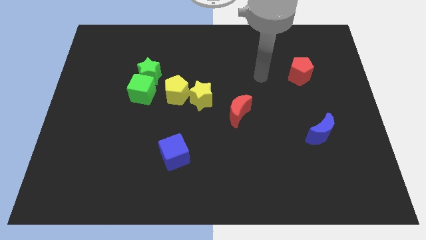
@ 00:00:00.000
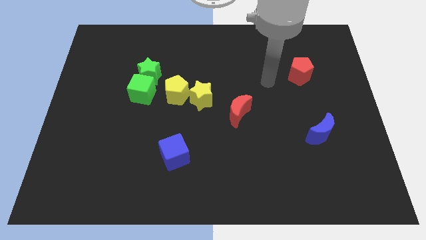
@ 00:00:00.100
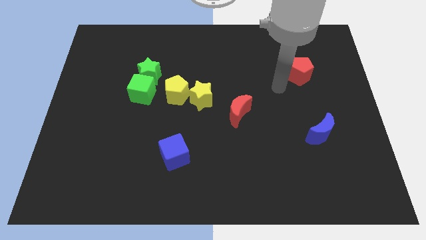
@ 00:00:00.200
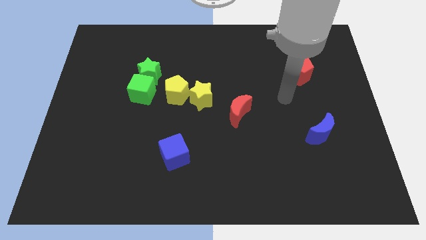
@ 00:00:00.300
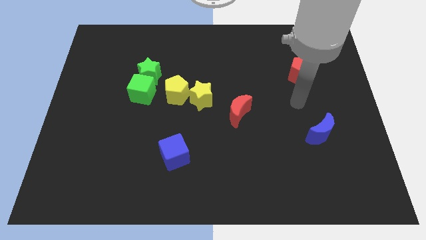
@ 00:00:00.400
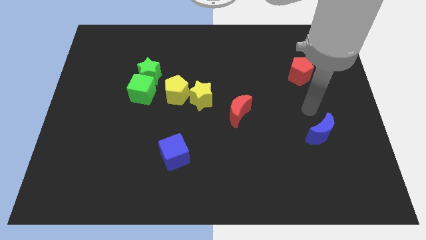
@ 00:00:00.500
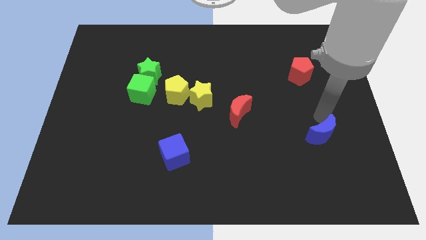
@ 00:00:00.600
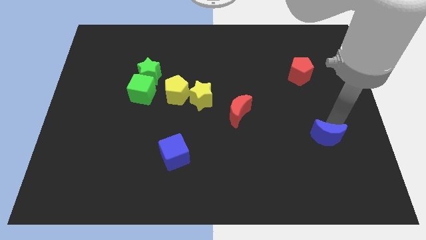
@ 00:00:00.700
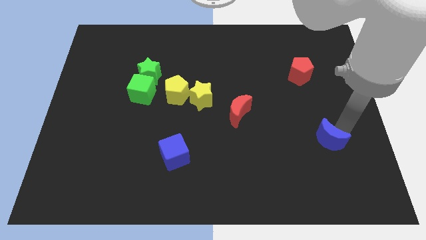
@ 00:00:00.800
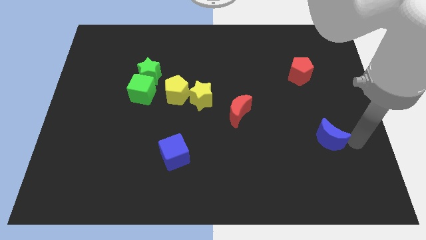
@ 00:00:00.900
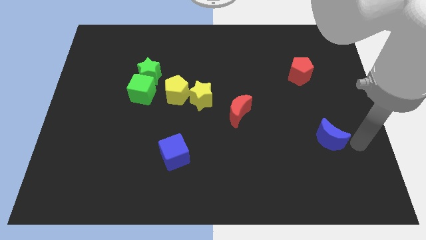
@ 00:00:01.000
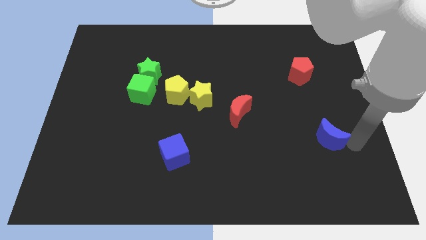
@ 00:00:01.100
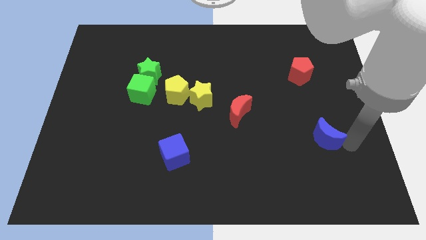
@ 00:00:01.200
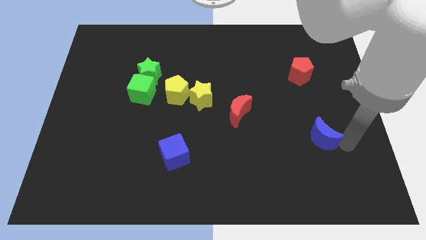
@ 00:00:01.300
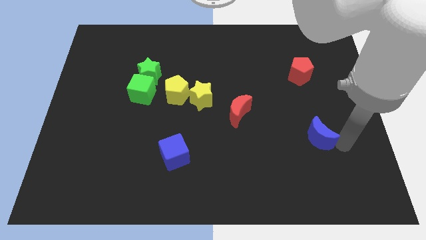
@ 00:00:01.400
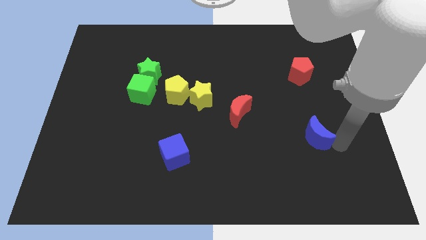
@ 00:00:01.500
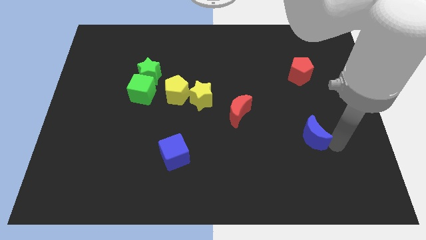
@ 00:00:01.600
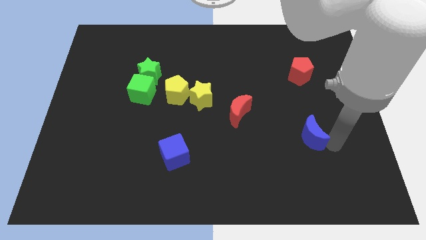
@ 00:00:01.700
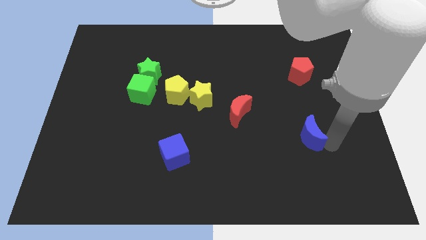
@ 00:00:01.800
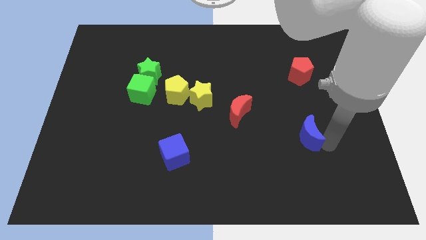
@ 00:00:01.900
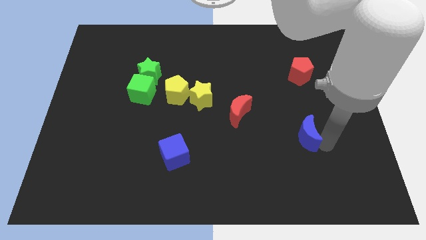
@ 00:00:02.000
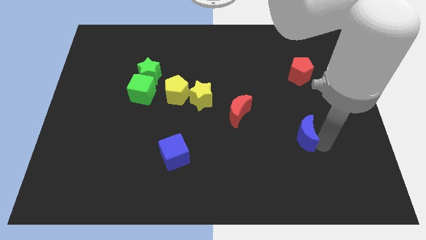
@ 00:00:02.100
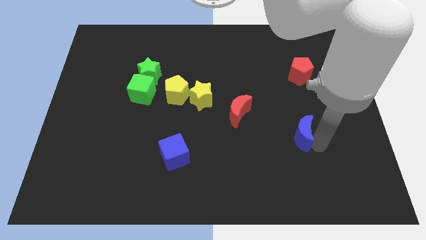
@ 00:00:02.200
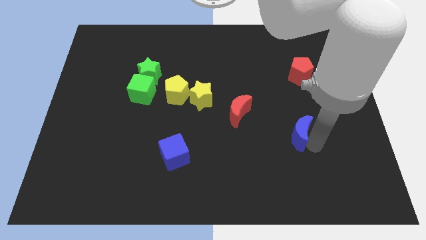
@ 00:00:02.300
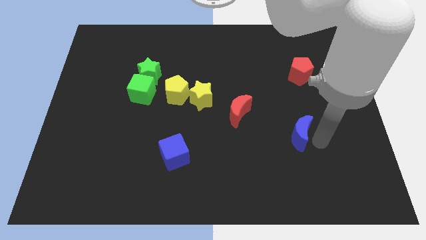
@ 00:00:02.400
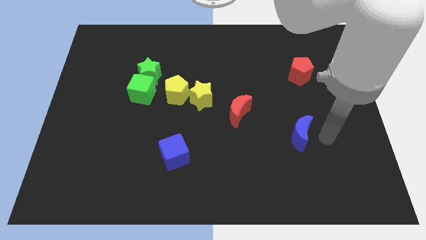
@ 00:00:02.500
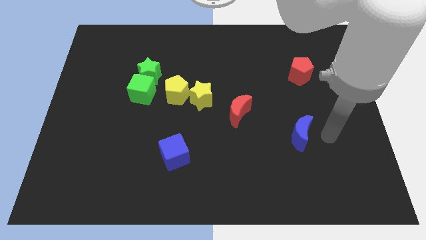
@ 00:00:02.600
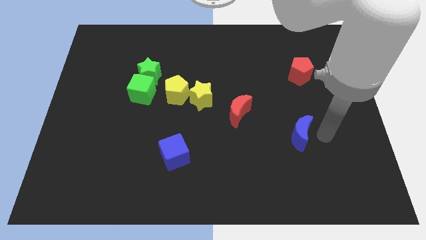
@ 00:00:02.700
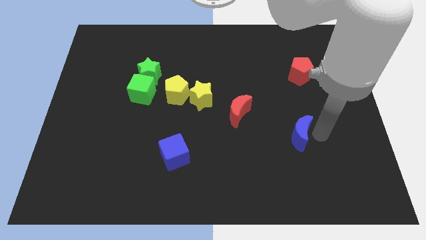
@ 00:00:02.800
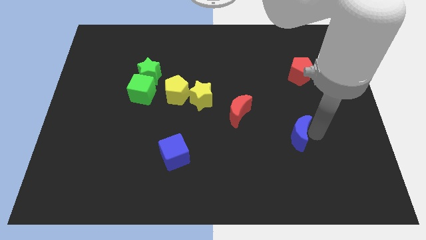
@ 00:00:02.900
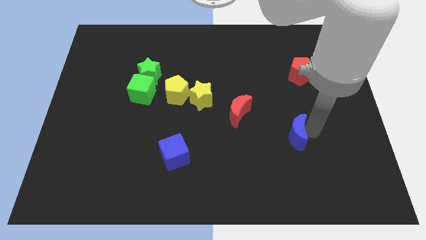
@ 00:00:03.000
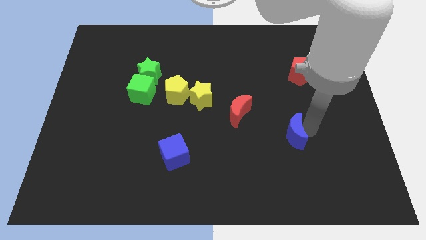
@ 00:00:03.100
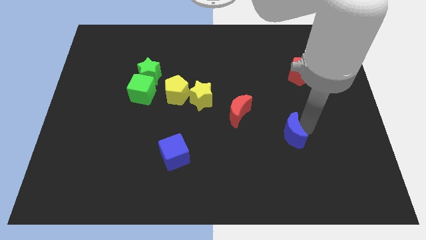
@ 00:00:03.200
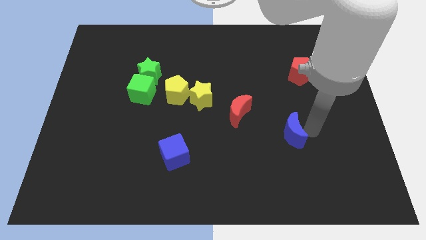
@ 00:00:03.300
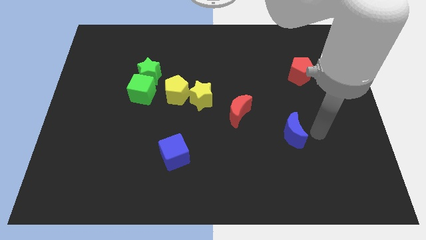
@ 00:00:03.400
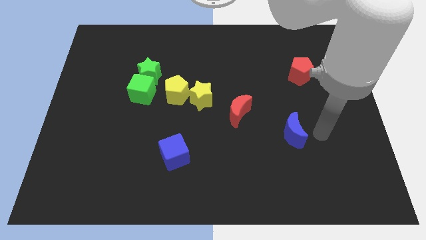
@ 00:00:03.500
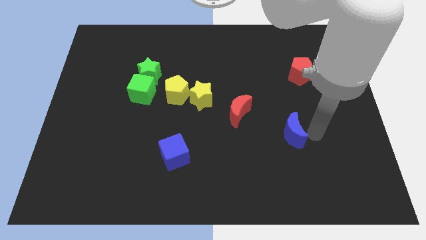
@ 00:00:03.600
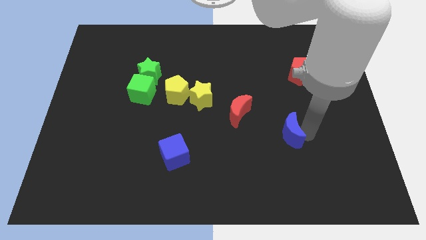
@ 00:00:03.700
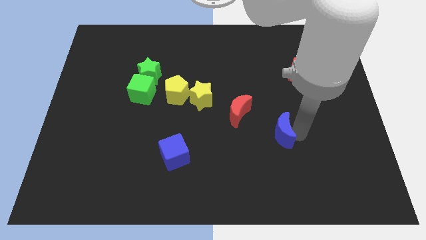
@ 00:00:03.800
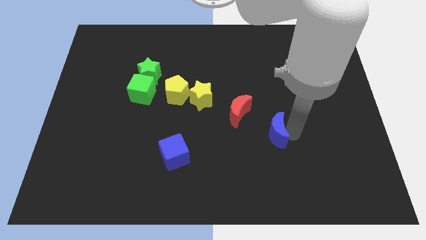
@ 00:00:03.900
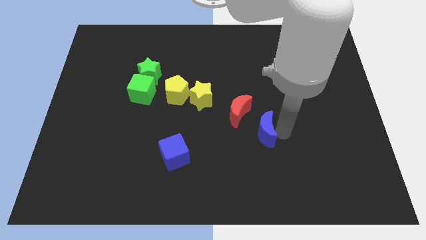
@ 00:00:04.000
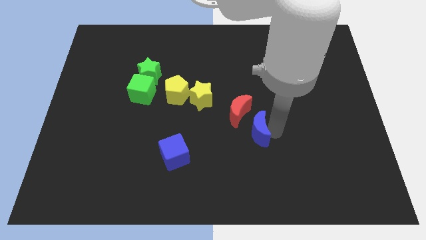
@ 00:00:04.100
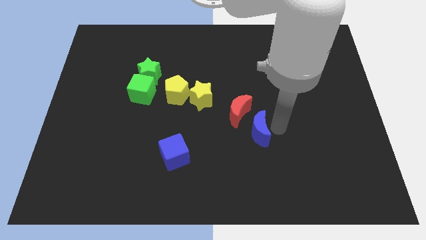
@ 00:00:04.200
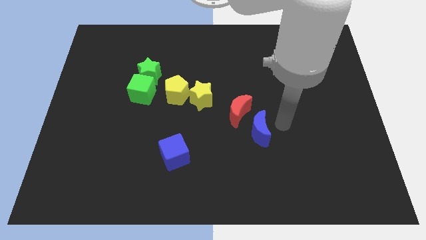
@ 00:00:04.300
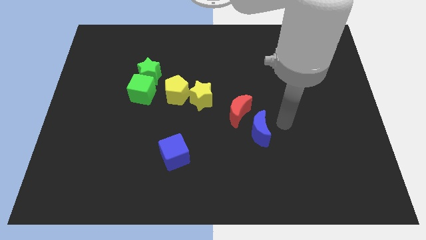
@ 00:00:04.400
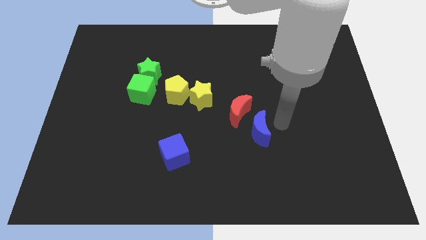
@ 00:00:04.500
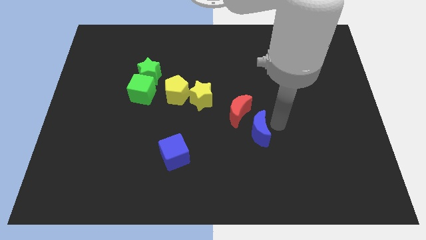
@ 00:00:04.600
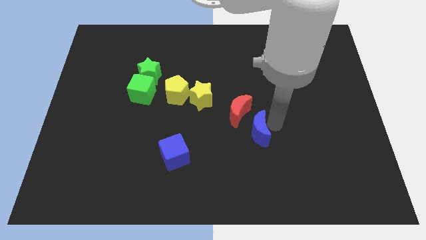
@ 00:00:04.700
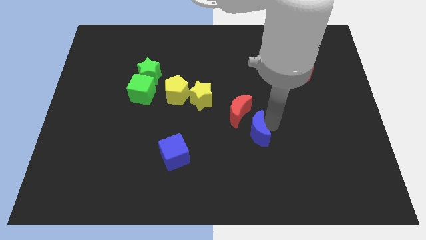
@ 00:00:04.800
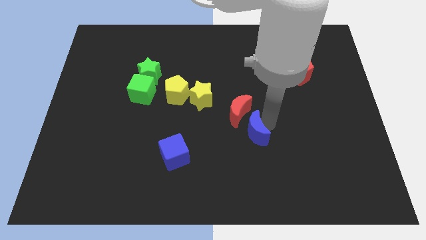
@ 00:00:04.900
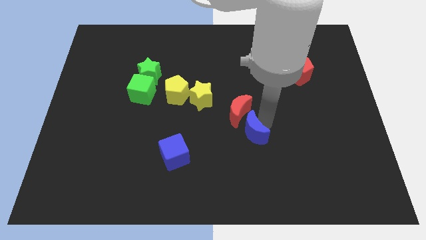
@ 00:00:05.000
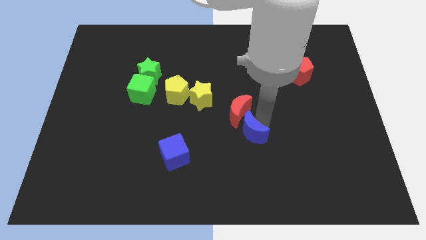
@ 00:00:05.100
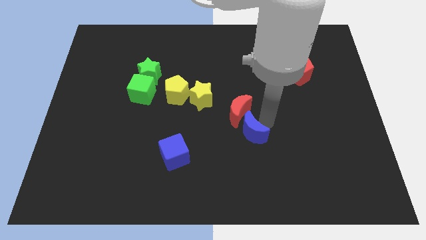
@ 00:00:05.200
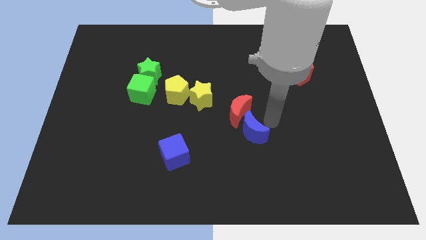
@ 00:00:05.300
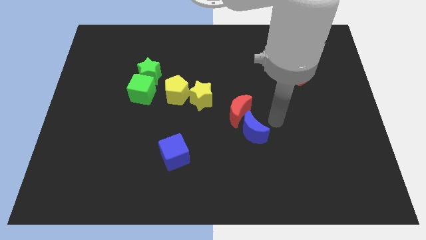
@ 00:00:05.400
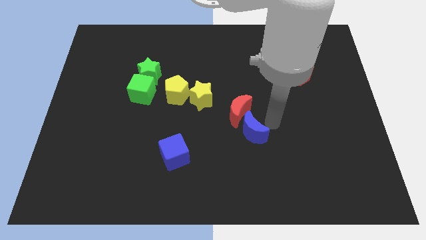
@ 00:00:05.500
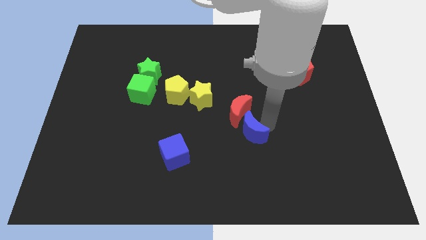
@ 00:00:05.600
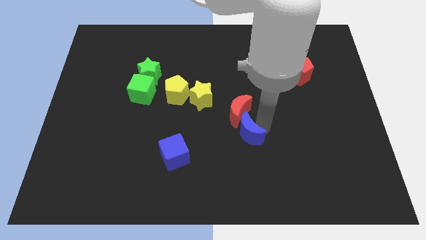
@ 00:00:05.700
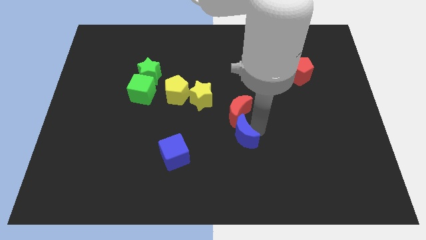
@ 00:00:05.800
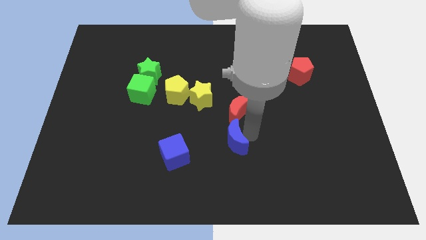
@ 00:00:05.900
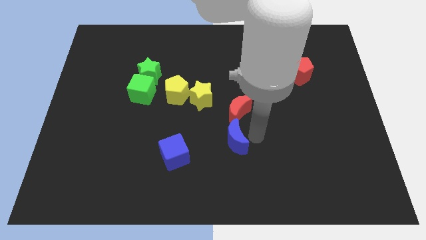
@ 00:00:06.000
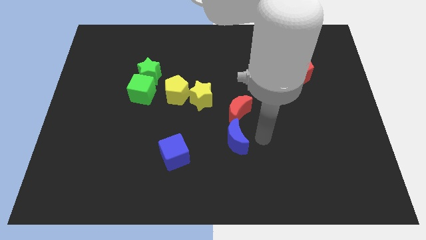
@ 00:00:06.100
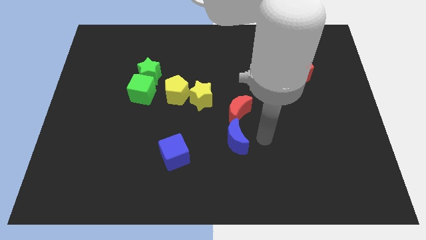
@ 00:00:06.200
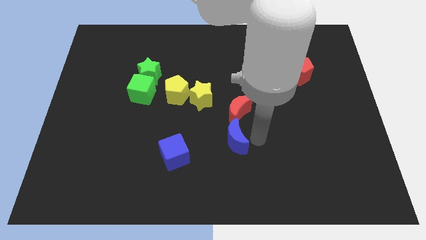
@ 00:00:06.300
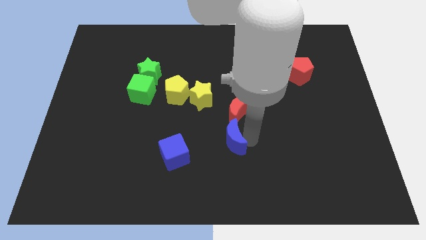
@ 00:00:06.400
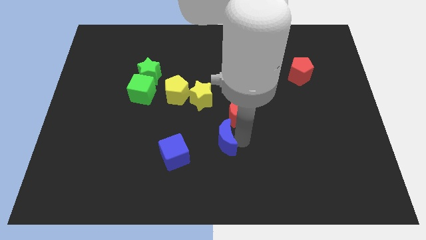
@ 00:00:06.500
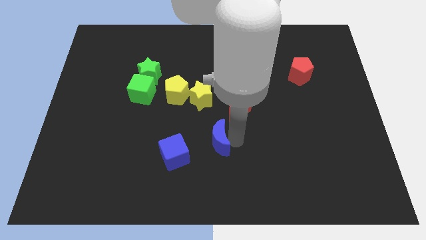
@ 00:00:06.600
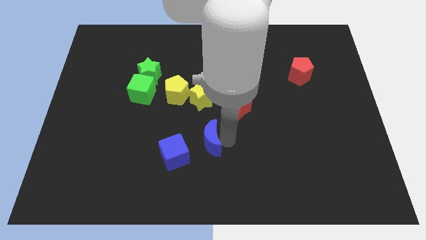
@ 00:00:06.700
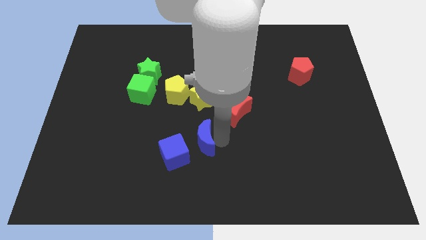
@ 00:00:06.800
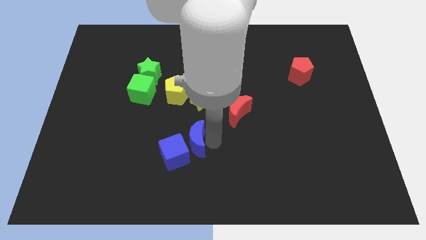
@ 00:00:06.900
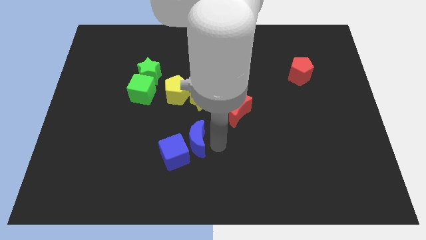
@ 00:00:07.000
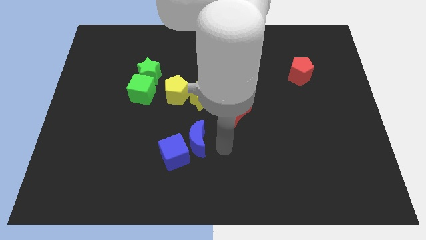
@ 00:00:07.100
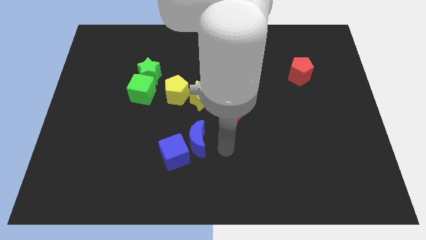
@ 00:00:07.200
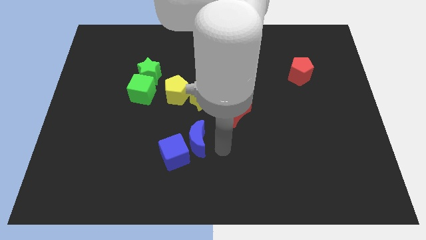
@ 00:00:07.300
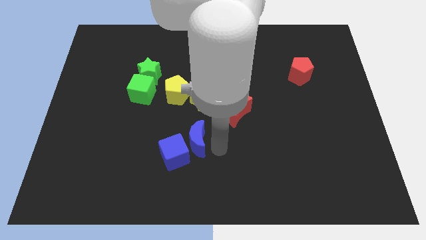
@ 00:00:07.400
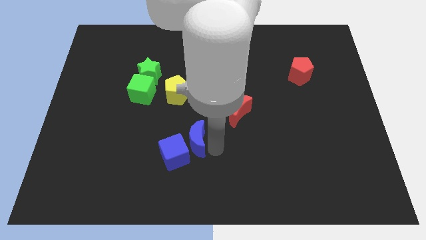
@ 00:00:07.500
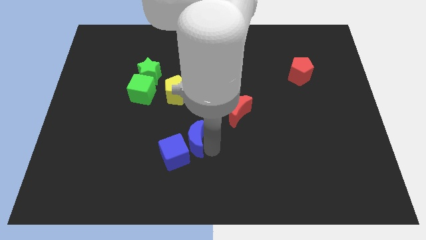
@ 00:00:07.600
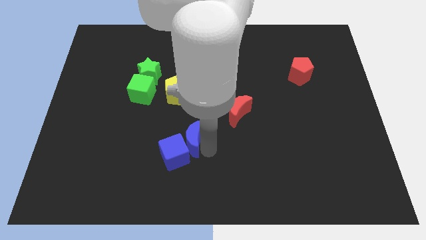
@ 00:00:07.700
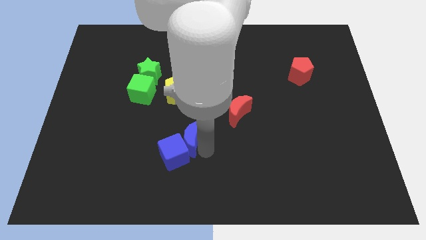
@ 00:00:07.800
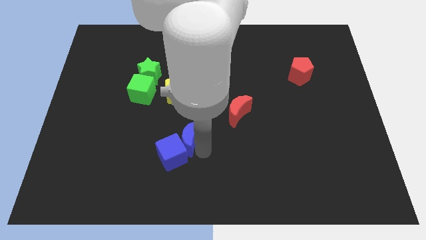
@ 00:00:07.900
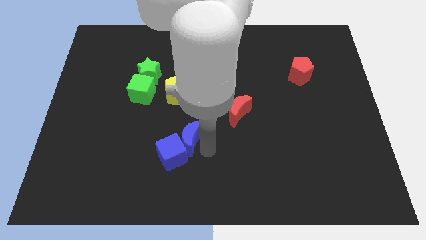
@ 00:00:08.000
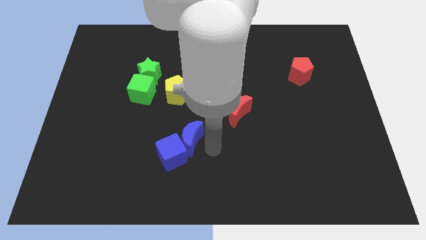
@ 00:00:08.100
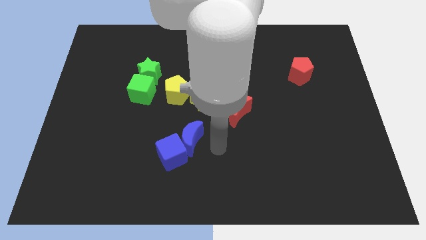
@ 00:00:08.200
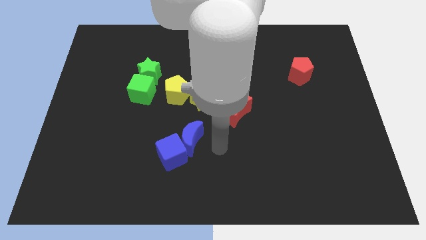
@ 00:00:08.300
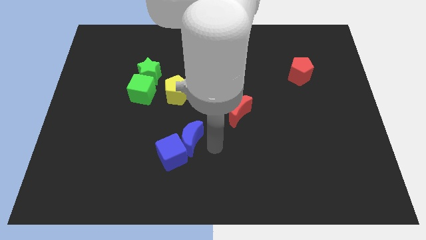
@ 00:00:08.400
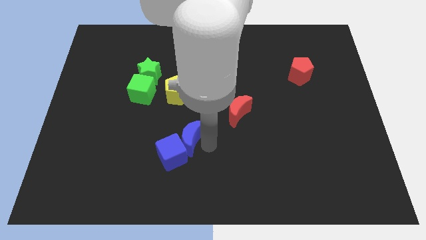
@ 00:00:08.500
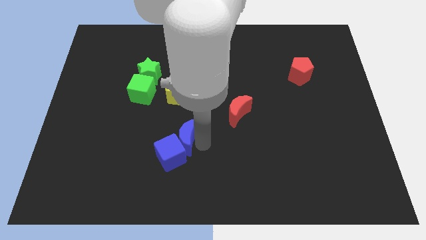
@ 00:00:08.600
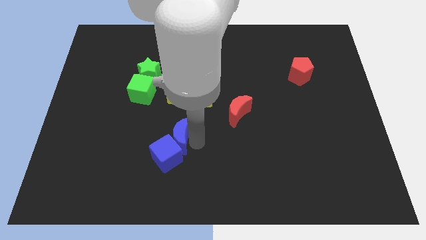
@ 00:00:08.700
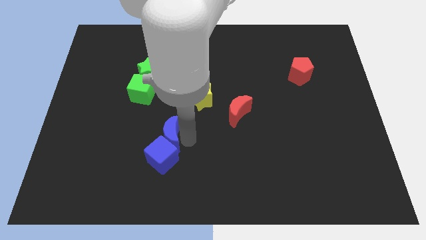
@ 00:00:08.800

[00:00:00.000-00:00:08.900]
slide the blue moon to the top left of the blue cube
